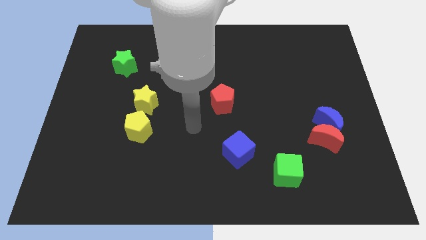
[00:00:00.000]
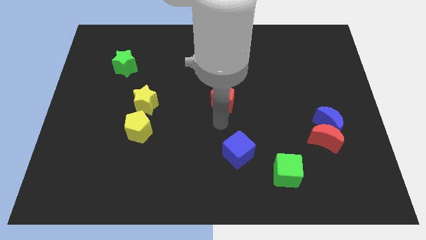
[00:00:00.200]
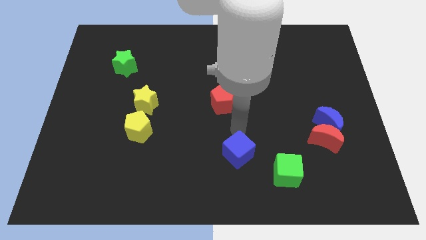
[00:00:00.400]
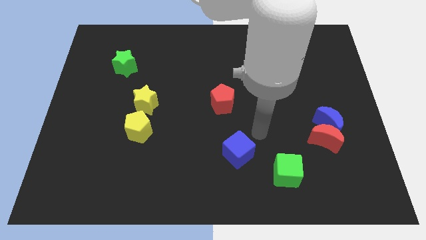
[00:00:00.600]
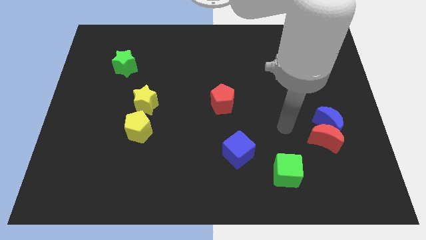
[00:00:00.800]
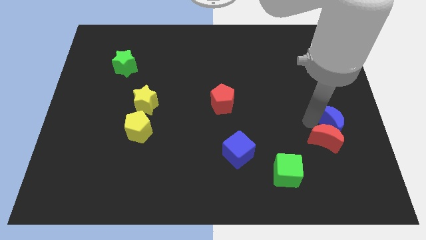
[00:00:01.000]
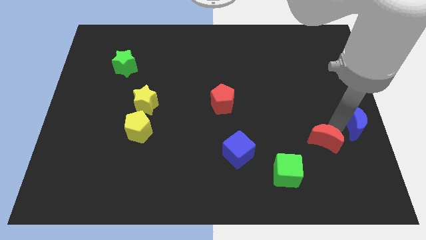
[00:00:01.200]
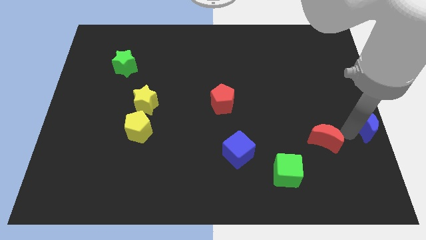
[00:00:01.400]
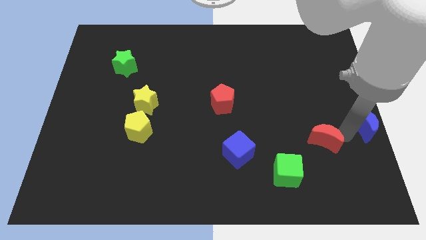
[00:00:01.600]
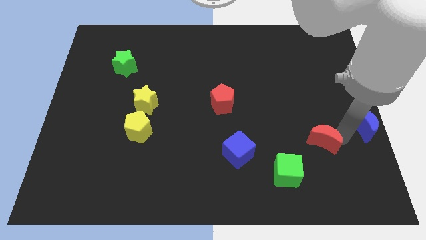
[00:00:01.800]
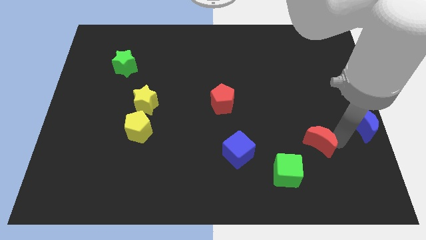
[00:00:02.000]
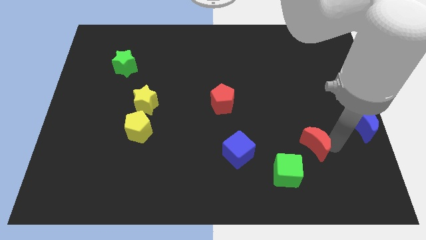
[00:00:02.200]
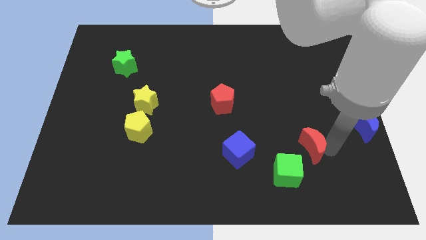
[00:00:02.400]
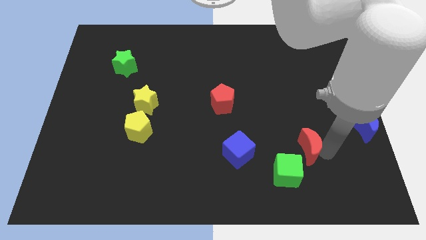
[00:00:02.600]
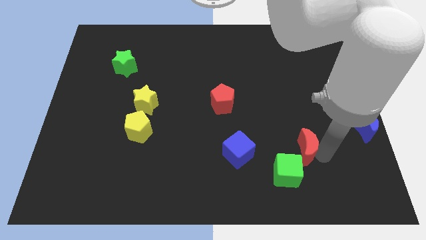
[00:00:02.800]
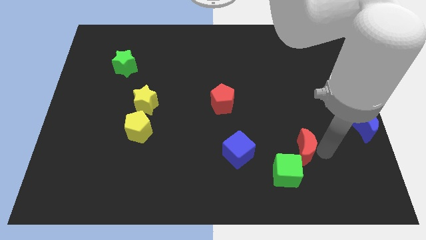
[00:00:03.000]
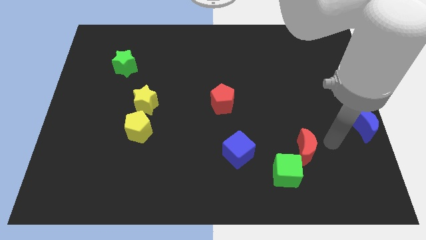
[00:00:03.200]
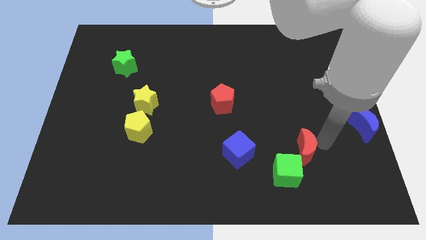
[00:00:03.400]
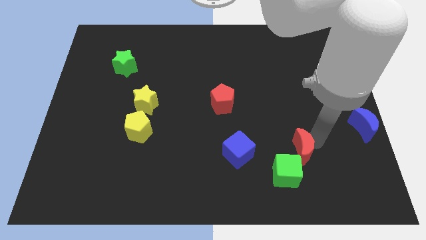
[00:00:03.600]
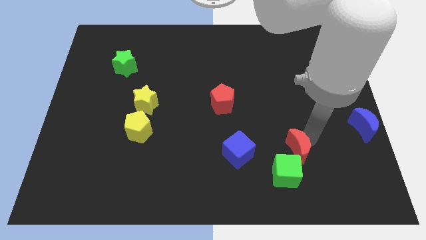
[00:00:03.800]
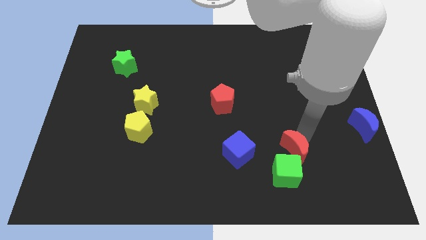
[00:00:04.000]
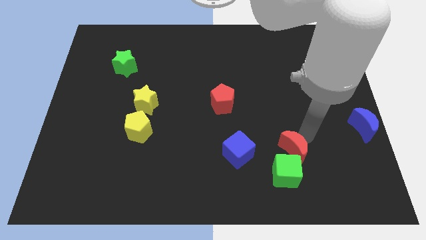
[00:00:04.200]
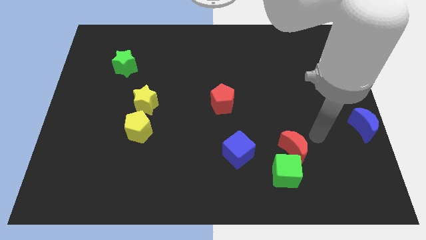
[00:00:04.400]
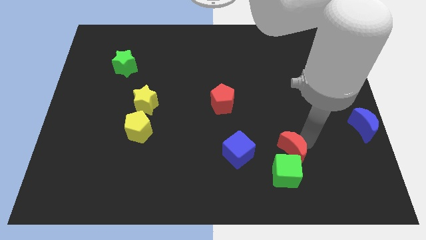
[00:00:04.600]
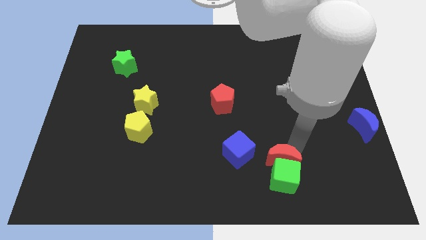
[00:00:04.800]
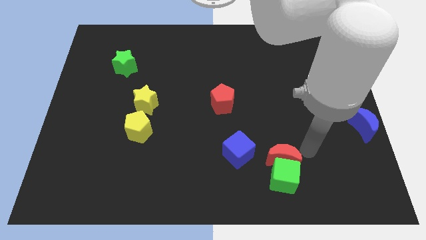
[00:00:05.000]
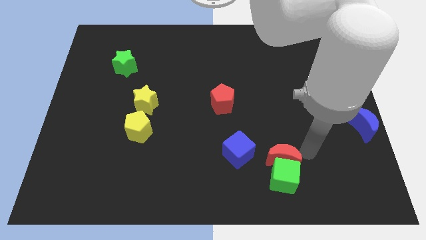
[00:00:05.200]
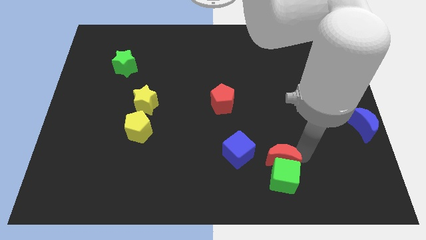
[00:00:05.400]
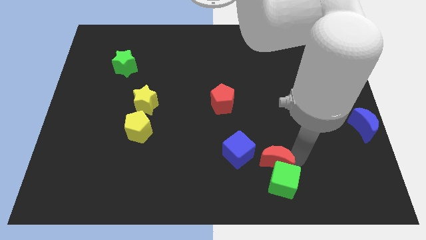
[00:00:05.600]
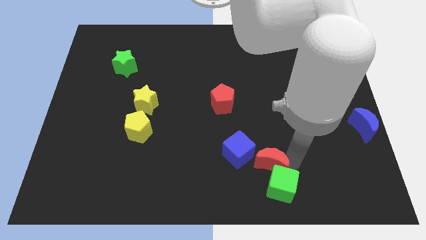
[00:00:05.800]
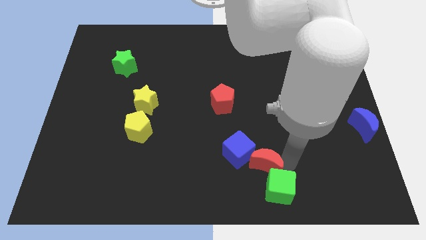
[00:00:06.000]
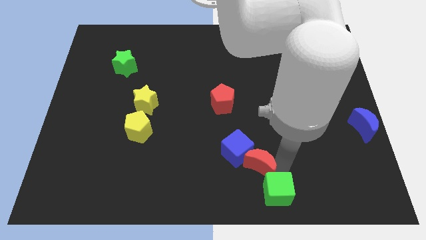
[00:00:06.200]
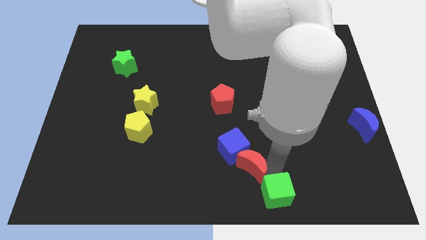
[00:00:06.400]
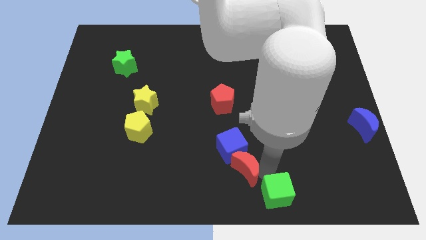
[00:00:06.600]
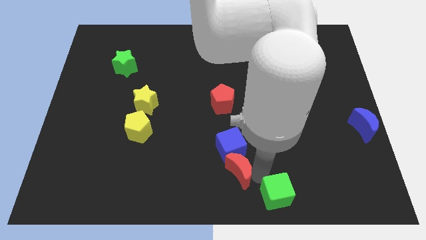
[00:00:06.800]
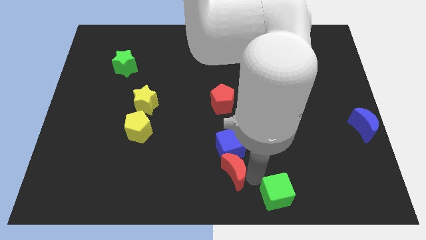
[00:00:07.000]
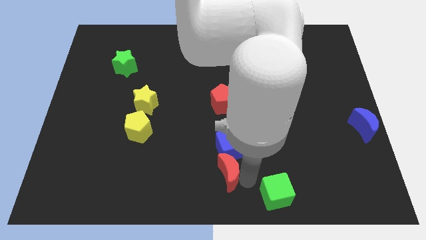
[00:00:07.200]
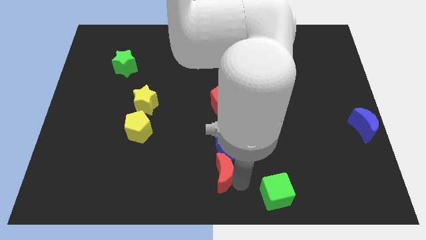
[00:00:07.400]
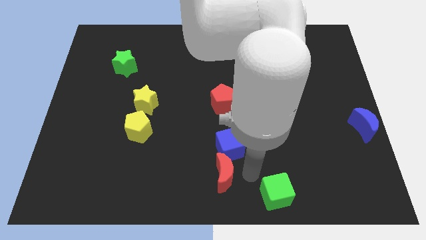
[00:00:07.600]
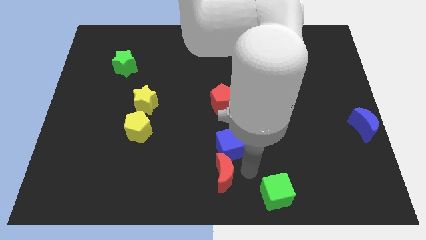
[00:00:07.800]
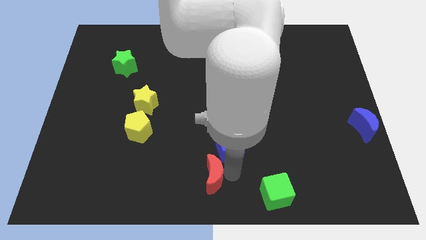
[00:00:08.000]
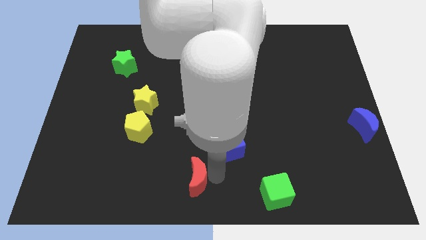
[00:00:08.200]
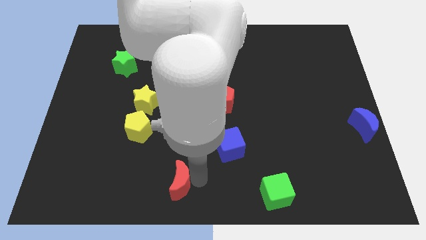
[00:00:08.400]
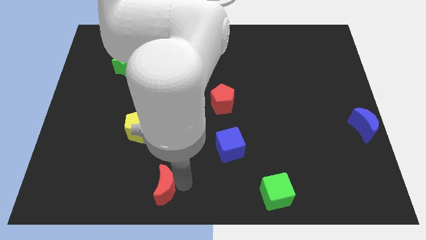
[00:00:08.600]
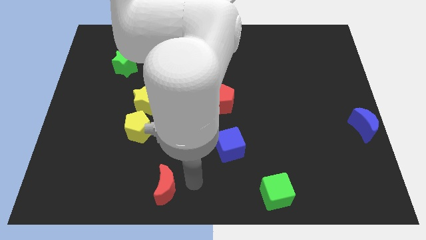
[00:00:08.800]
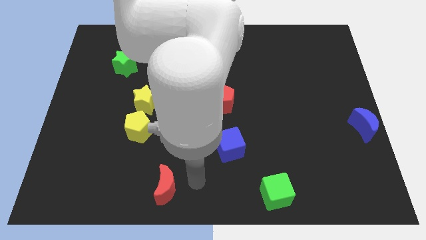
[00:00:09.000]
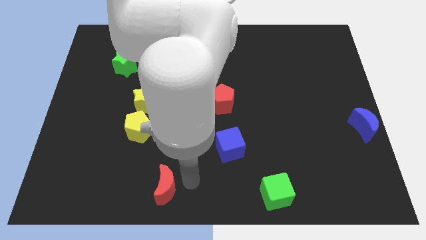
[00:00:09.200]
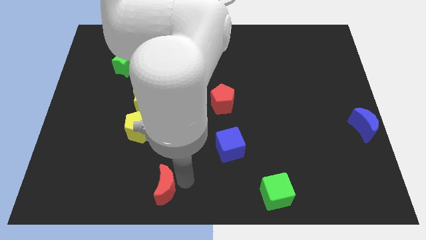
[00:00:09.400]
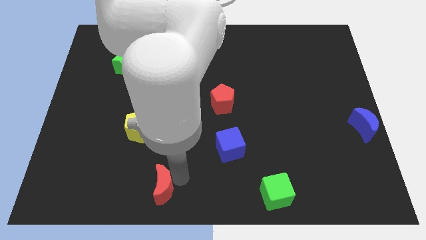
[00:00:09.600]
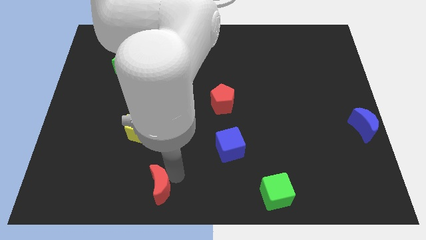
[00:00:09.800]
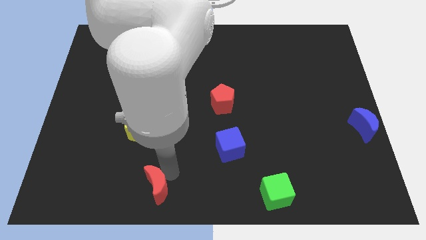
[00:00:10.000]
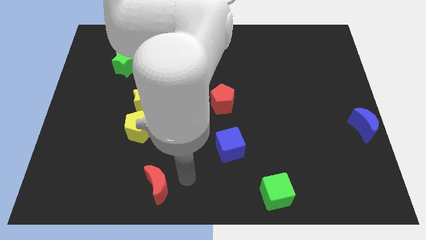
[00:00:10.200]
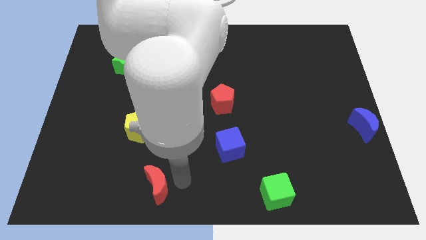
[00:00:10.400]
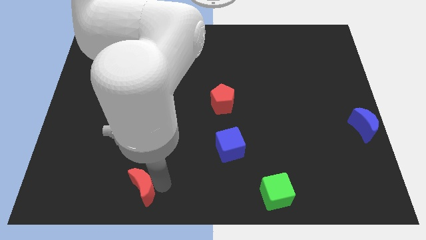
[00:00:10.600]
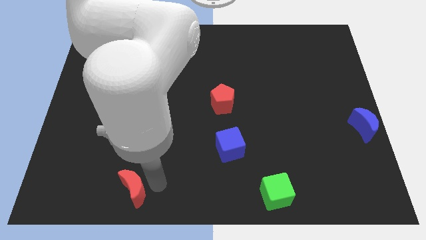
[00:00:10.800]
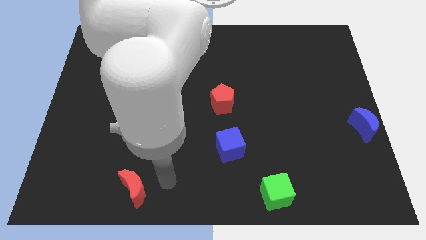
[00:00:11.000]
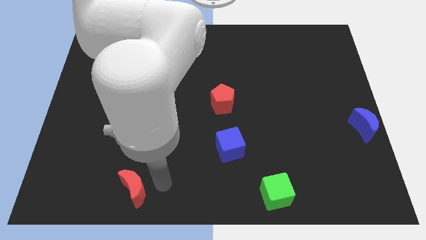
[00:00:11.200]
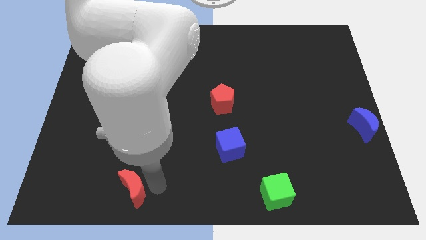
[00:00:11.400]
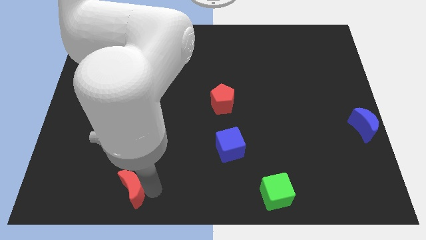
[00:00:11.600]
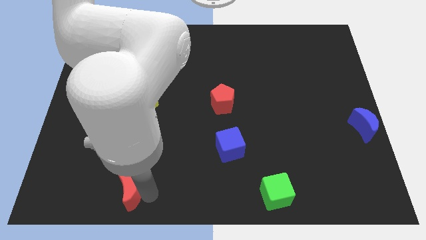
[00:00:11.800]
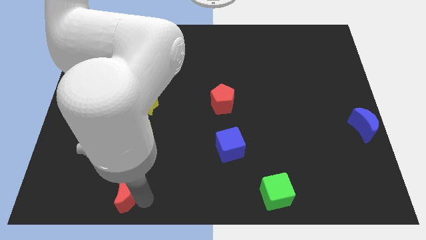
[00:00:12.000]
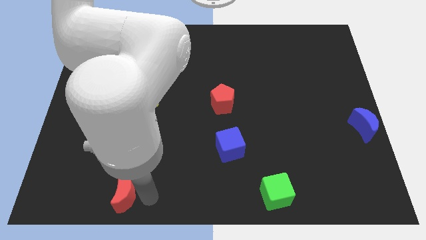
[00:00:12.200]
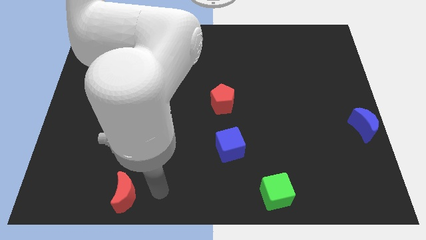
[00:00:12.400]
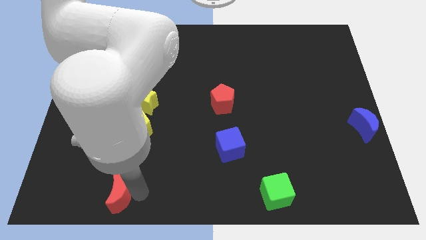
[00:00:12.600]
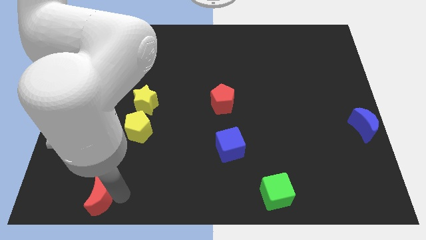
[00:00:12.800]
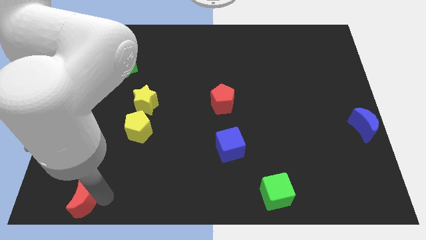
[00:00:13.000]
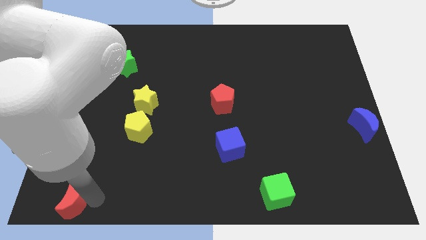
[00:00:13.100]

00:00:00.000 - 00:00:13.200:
slide the red moon to the bottom left of the board
